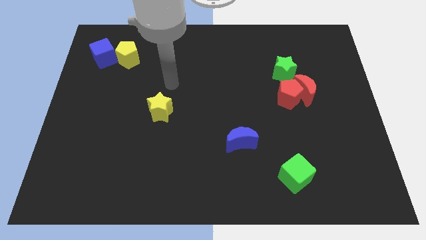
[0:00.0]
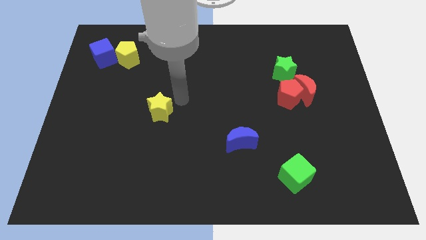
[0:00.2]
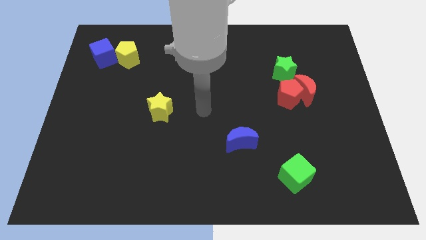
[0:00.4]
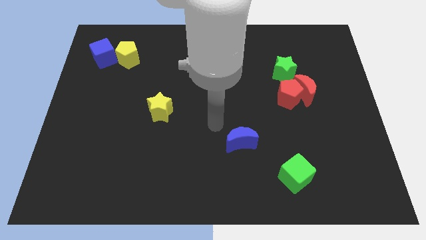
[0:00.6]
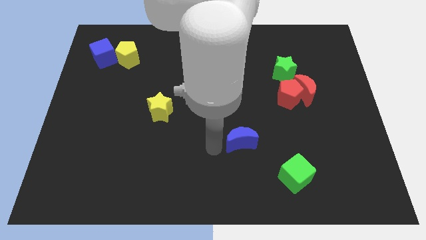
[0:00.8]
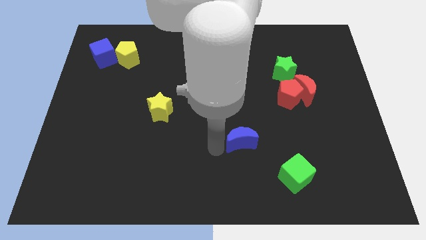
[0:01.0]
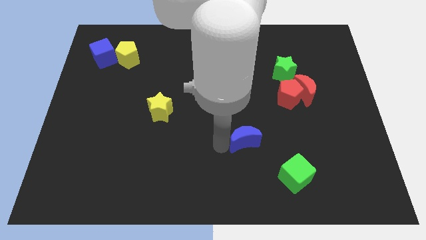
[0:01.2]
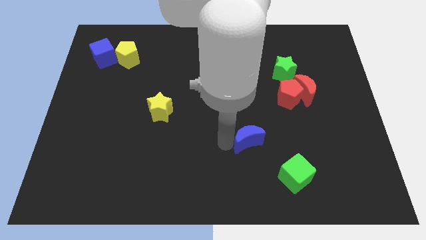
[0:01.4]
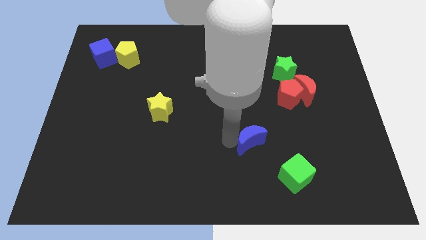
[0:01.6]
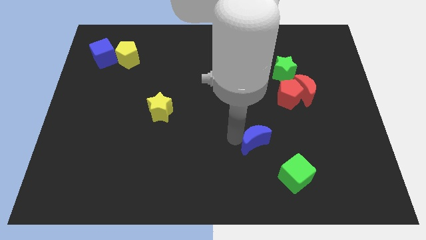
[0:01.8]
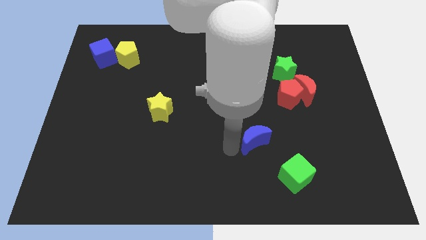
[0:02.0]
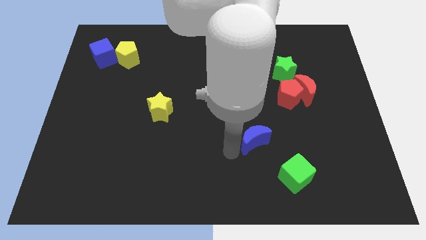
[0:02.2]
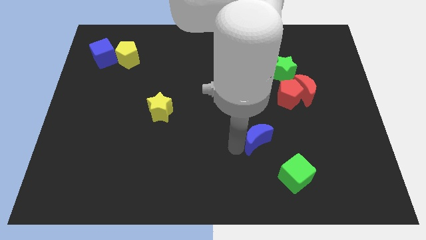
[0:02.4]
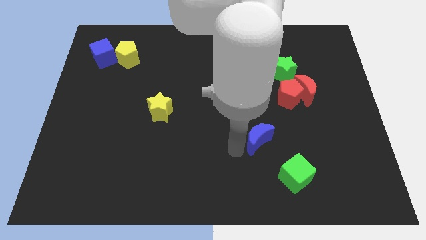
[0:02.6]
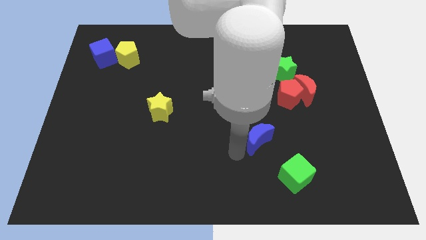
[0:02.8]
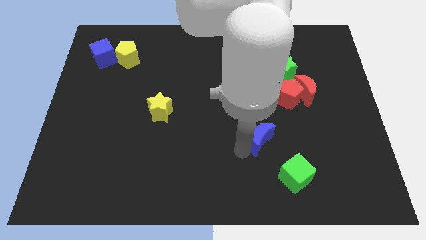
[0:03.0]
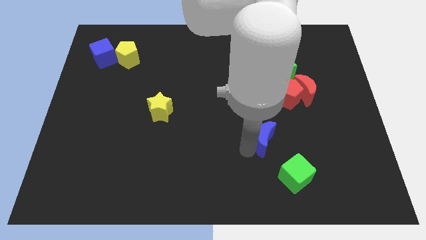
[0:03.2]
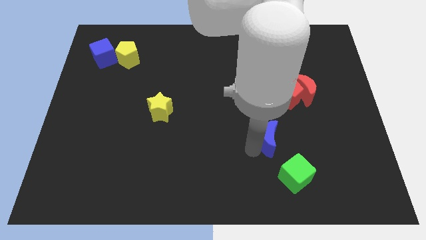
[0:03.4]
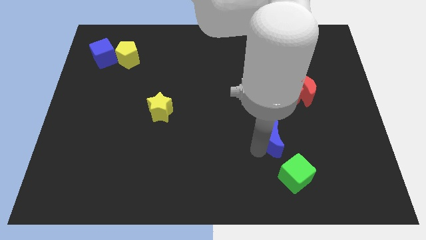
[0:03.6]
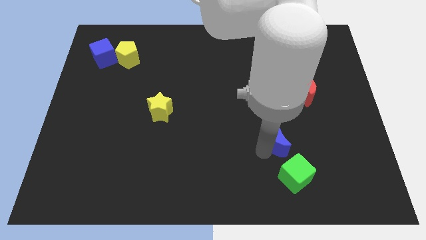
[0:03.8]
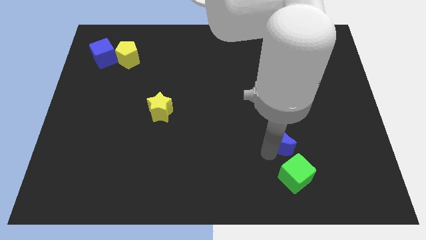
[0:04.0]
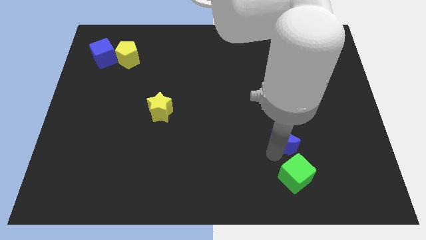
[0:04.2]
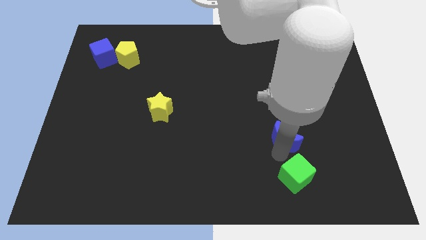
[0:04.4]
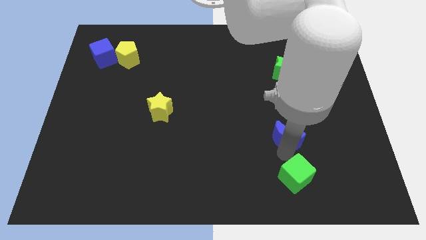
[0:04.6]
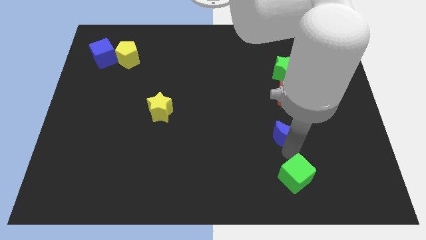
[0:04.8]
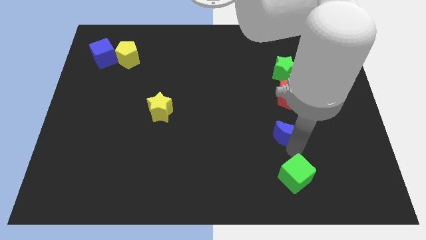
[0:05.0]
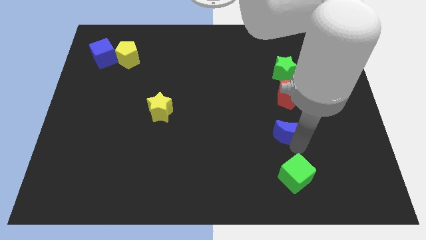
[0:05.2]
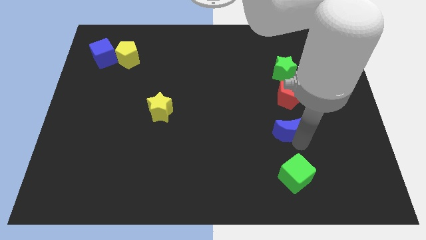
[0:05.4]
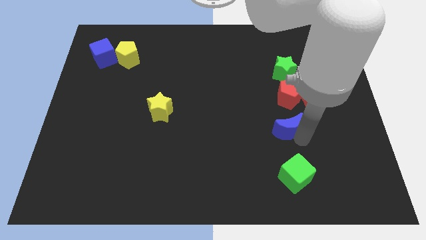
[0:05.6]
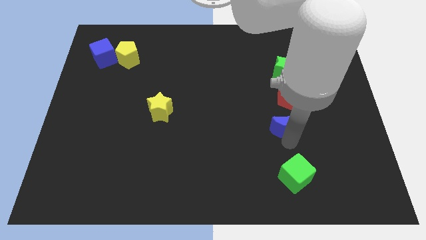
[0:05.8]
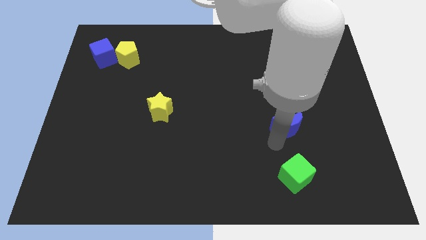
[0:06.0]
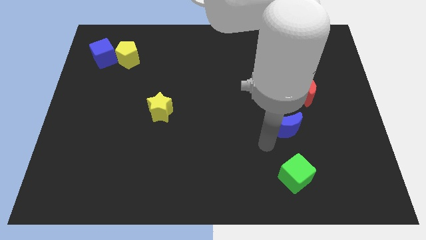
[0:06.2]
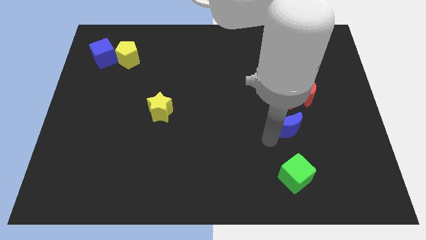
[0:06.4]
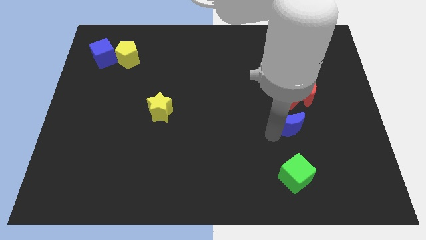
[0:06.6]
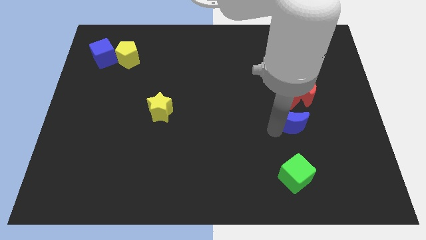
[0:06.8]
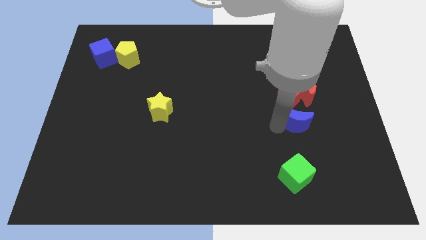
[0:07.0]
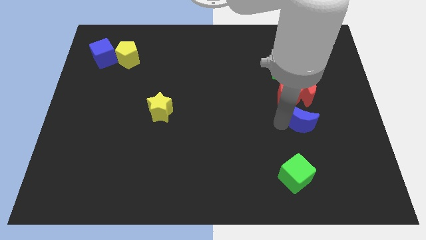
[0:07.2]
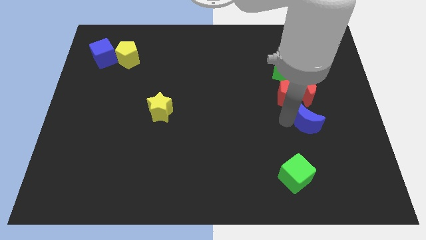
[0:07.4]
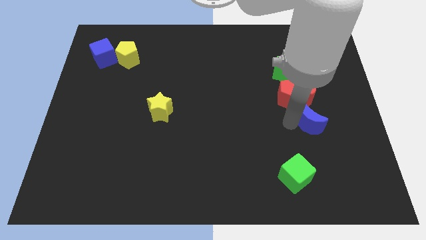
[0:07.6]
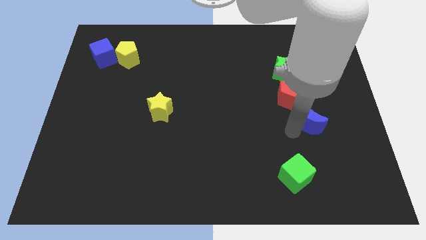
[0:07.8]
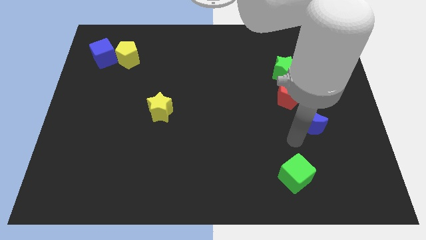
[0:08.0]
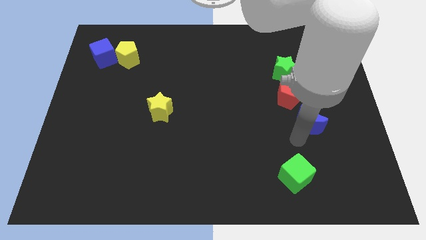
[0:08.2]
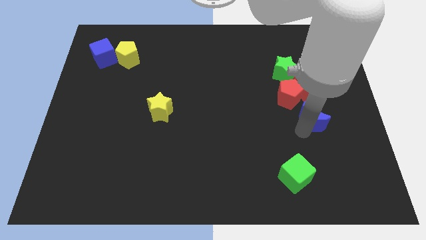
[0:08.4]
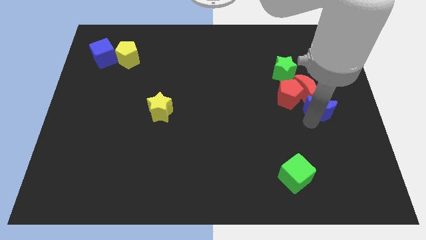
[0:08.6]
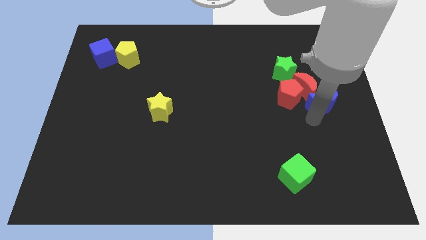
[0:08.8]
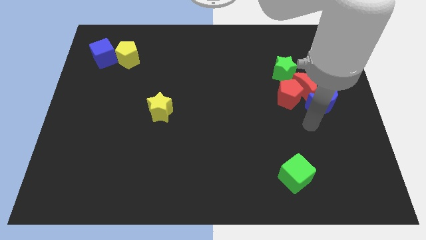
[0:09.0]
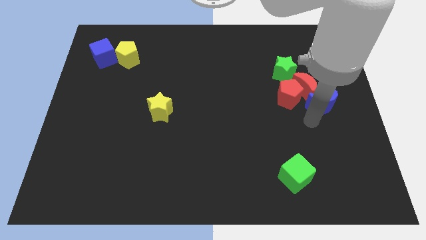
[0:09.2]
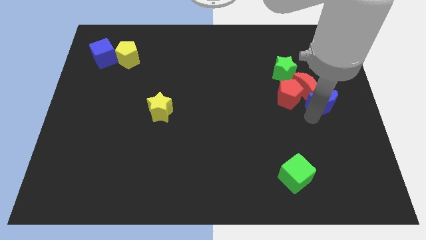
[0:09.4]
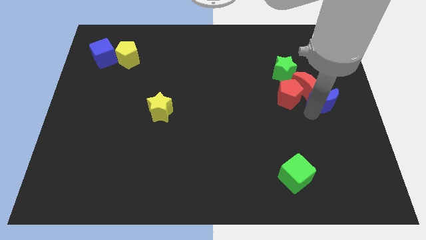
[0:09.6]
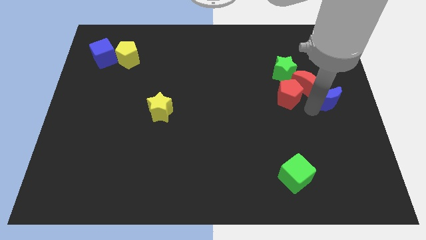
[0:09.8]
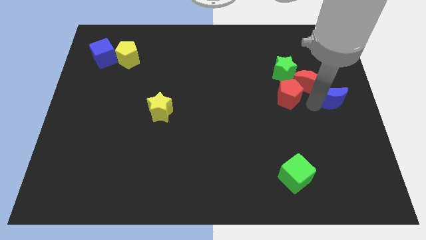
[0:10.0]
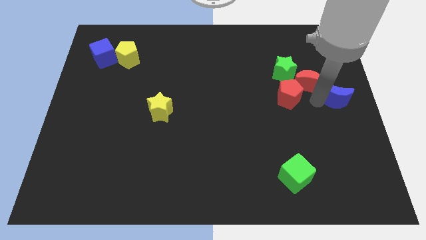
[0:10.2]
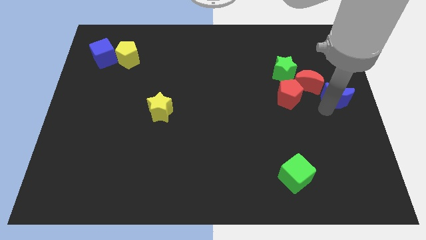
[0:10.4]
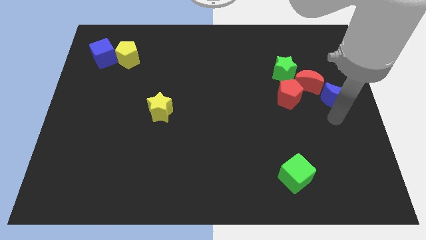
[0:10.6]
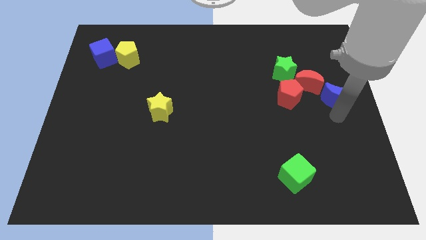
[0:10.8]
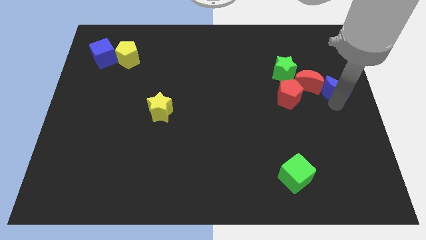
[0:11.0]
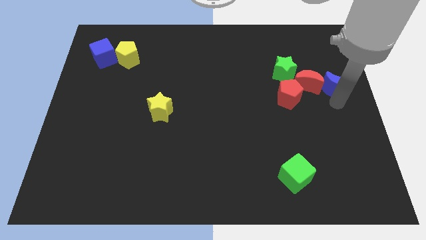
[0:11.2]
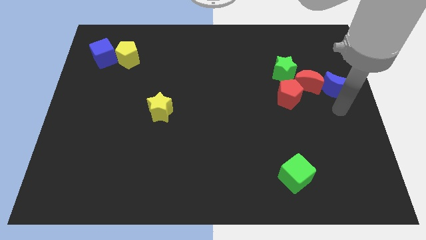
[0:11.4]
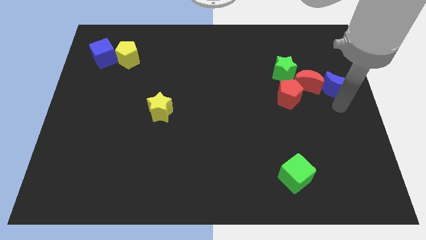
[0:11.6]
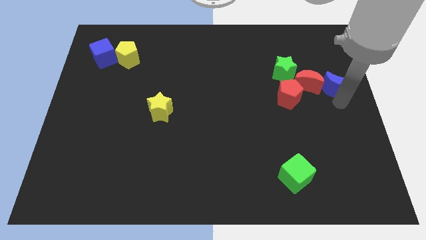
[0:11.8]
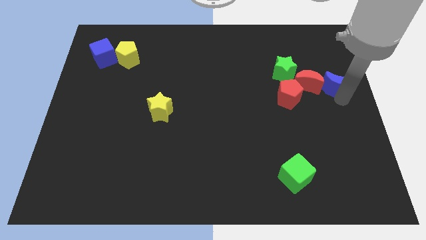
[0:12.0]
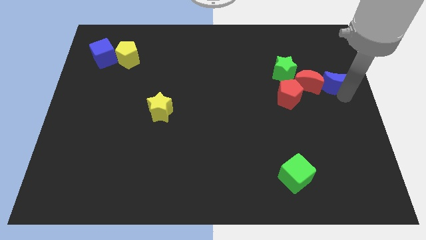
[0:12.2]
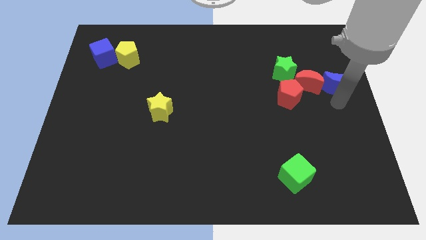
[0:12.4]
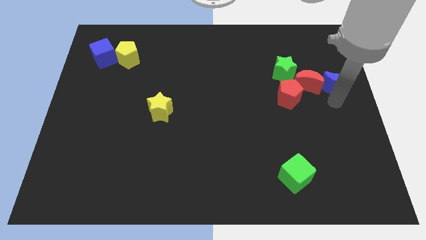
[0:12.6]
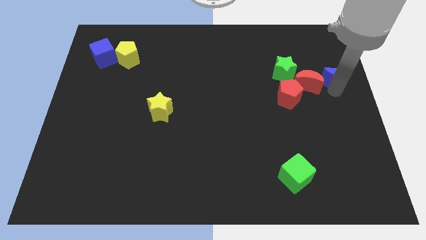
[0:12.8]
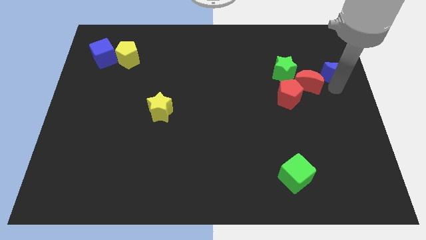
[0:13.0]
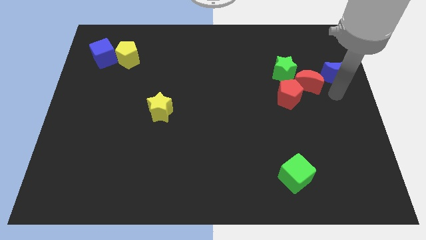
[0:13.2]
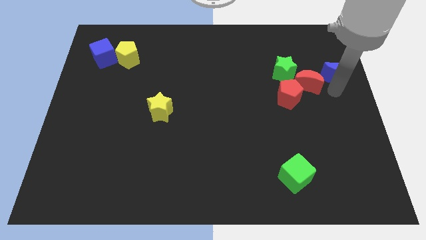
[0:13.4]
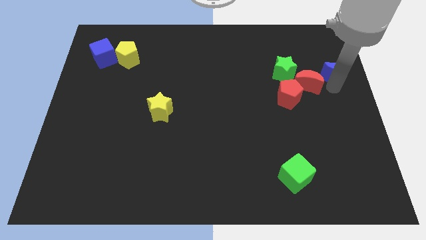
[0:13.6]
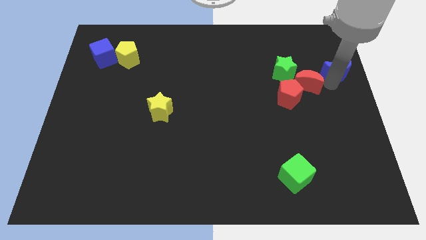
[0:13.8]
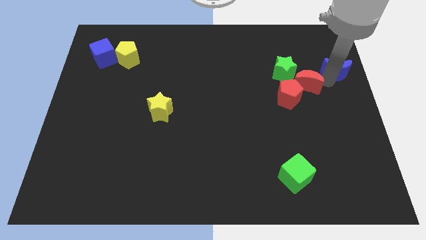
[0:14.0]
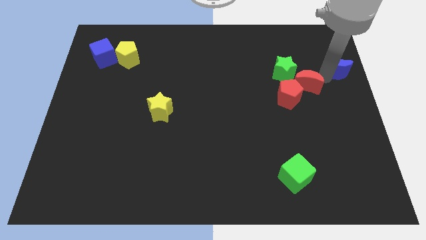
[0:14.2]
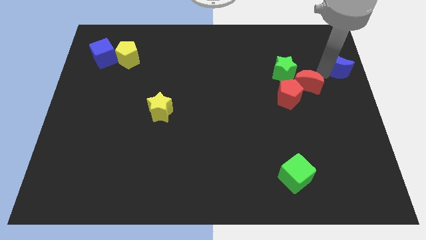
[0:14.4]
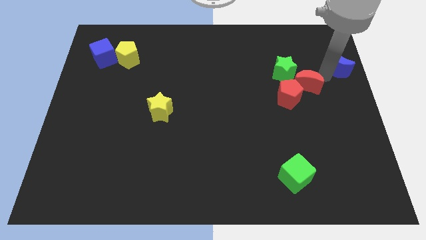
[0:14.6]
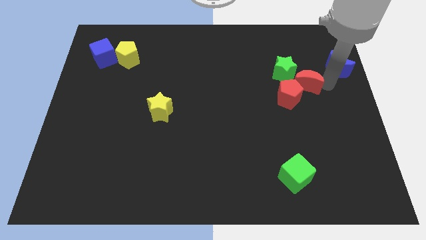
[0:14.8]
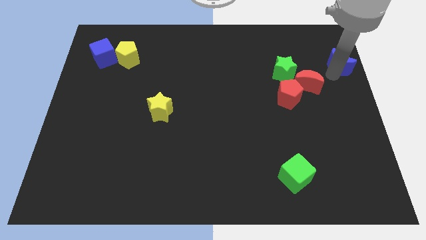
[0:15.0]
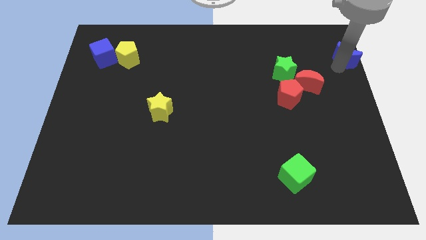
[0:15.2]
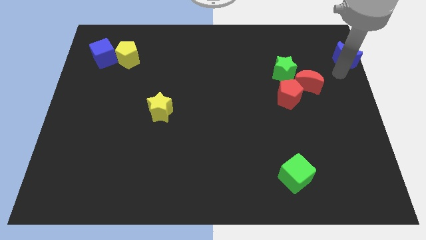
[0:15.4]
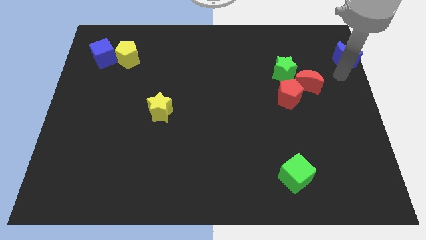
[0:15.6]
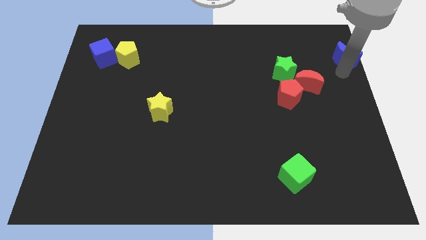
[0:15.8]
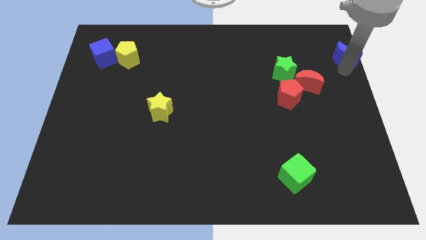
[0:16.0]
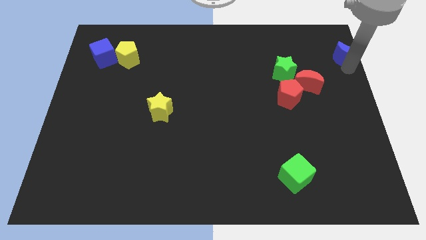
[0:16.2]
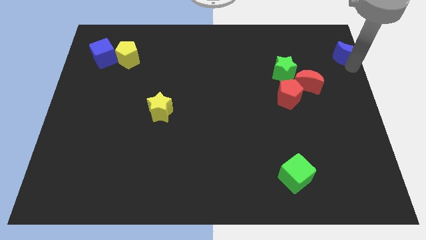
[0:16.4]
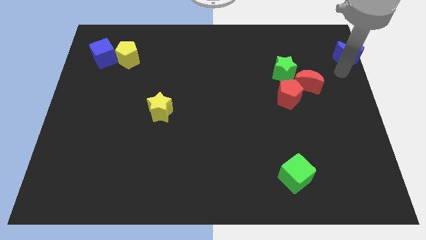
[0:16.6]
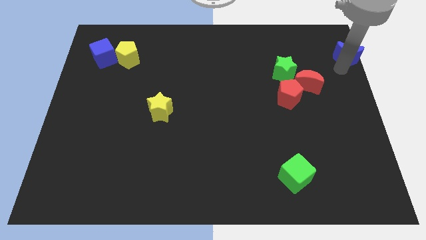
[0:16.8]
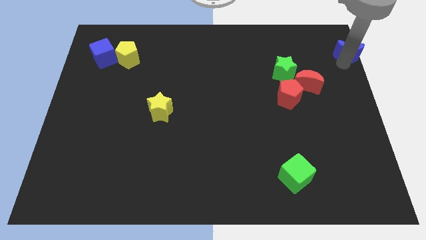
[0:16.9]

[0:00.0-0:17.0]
move the blue moon to the upper right corner

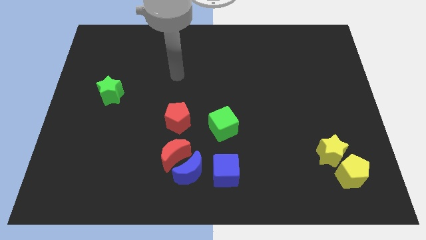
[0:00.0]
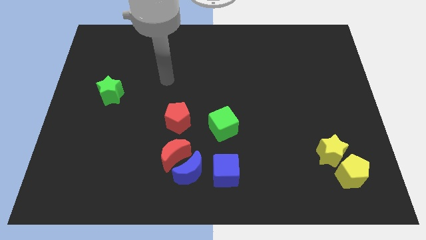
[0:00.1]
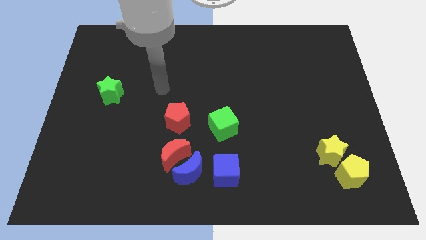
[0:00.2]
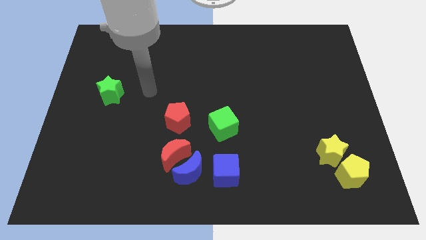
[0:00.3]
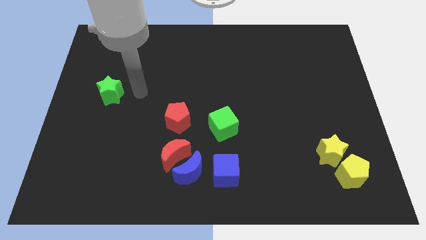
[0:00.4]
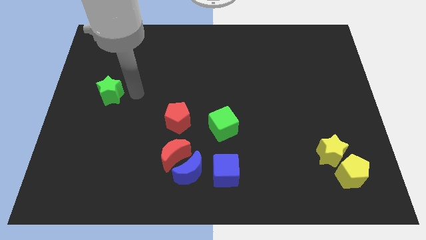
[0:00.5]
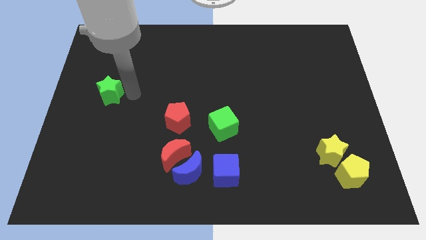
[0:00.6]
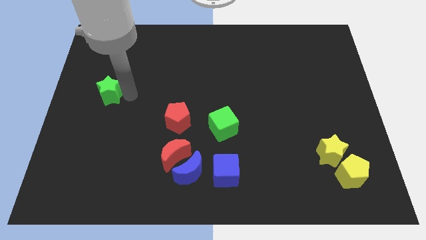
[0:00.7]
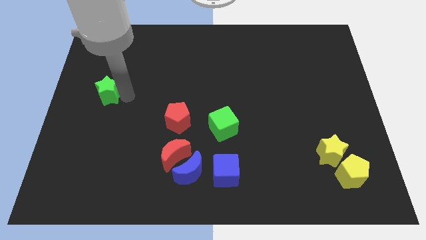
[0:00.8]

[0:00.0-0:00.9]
move the green star to the left side
